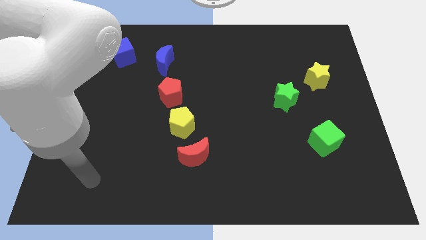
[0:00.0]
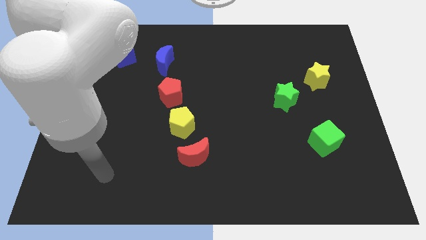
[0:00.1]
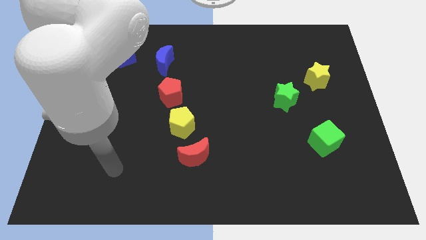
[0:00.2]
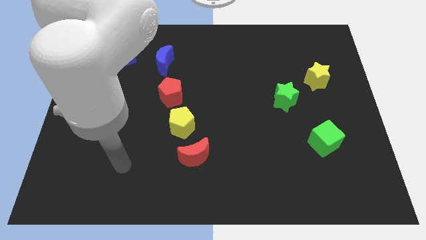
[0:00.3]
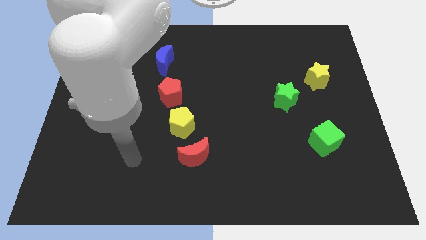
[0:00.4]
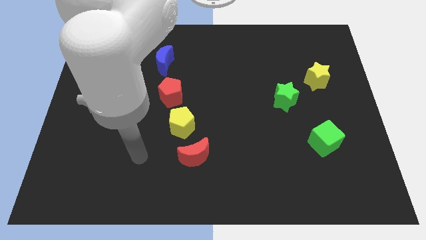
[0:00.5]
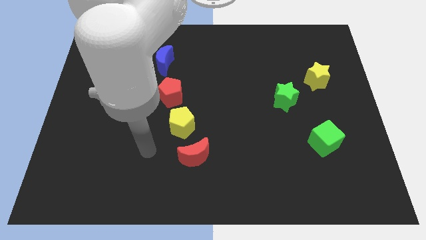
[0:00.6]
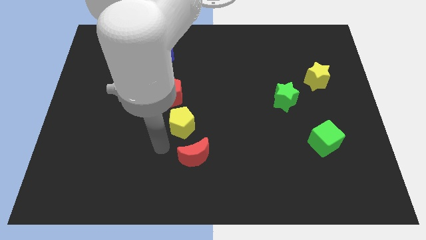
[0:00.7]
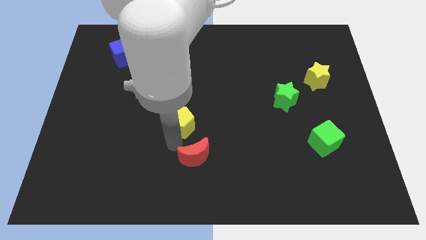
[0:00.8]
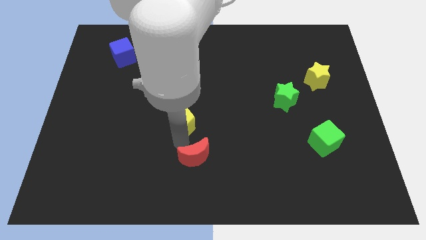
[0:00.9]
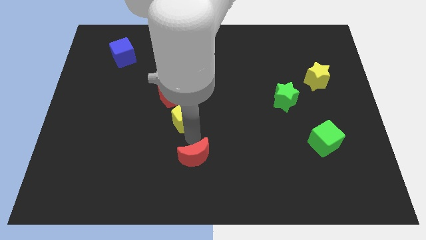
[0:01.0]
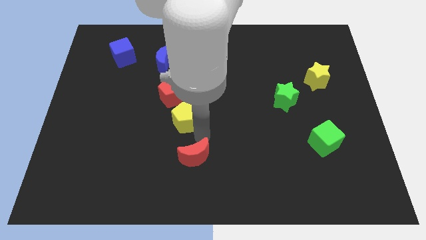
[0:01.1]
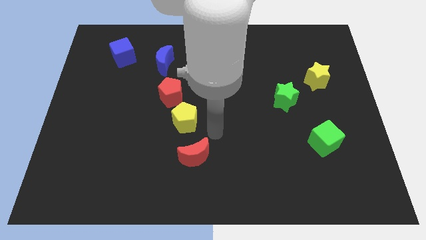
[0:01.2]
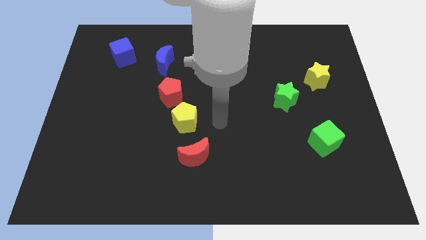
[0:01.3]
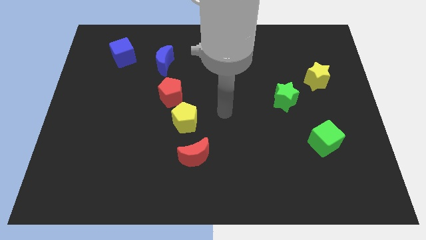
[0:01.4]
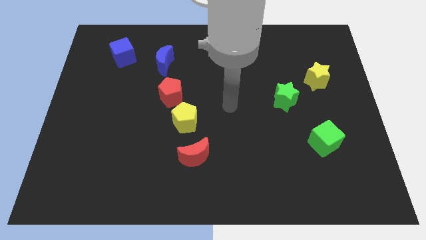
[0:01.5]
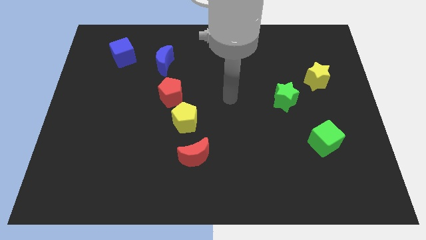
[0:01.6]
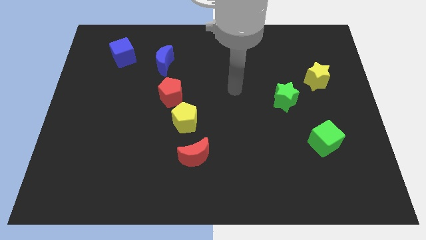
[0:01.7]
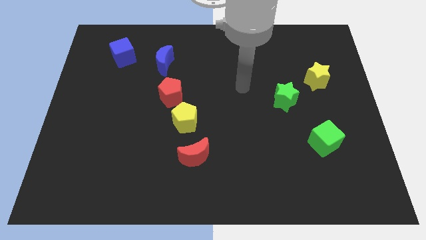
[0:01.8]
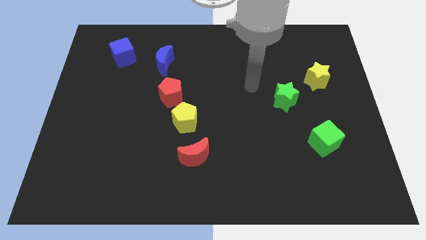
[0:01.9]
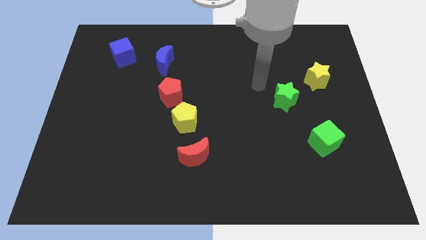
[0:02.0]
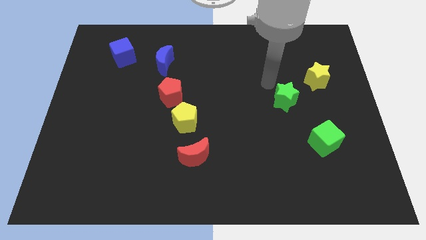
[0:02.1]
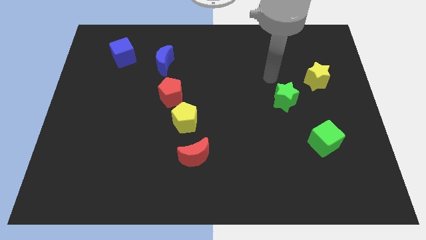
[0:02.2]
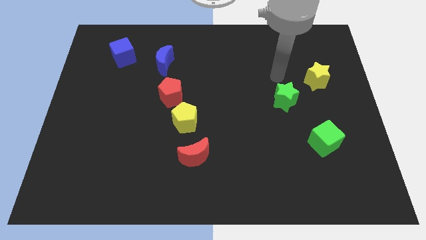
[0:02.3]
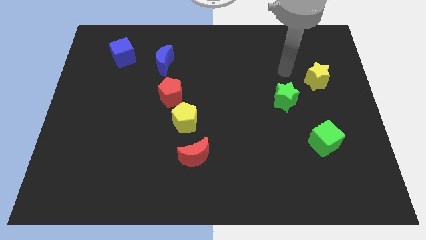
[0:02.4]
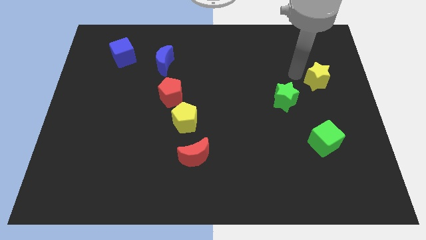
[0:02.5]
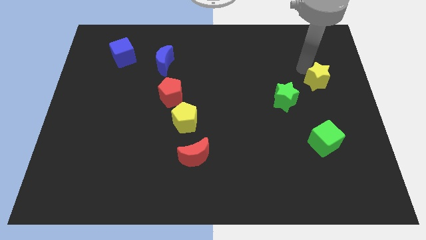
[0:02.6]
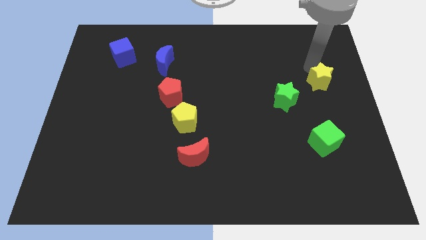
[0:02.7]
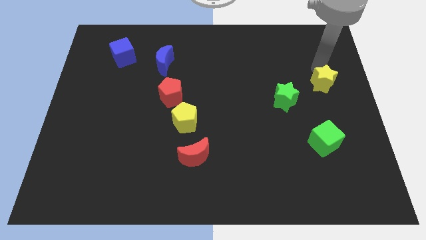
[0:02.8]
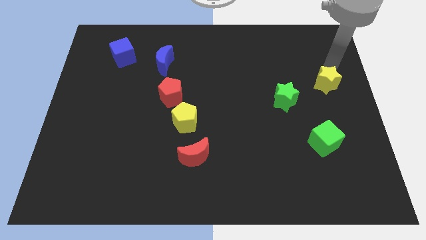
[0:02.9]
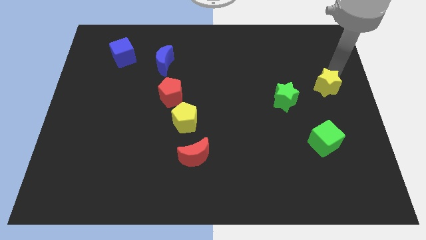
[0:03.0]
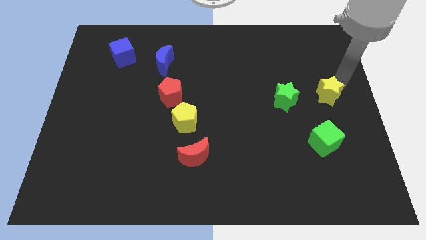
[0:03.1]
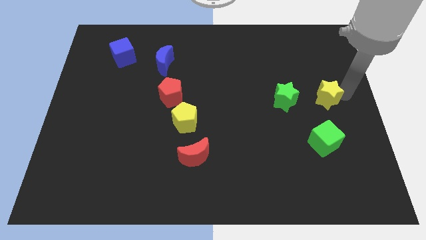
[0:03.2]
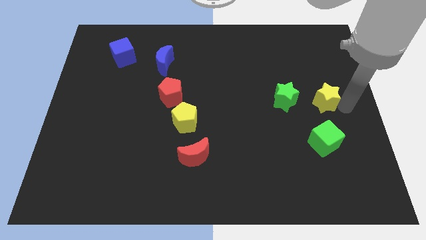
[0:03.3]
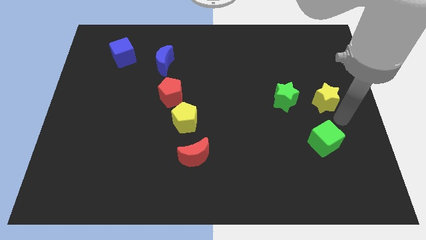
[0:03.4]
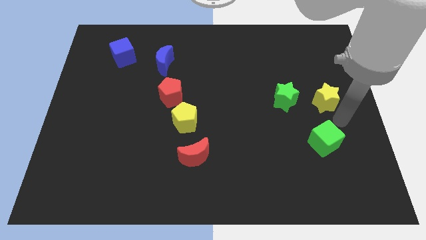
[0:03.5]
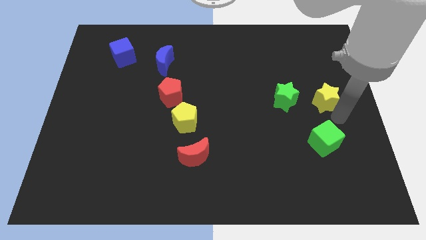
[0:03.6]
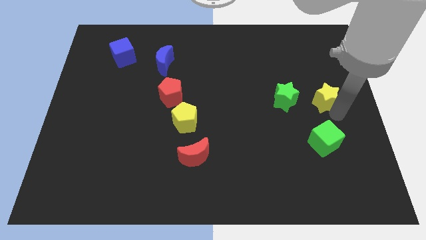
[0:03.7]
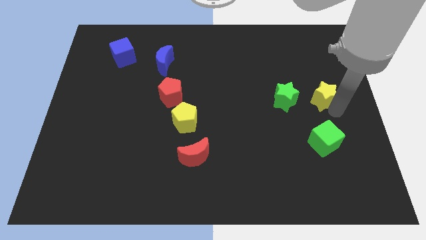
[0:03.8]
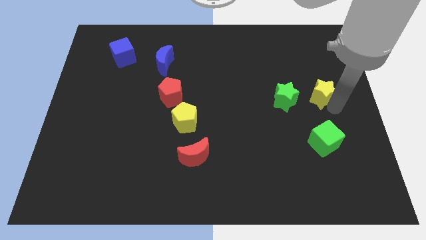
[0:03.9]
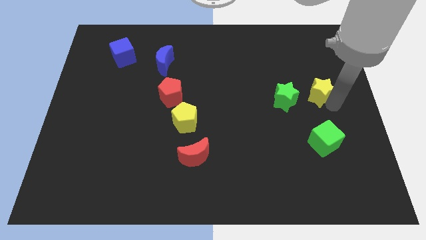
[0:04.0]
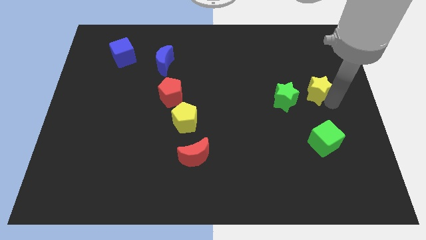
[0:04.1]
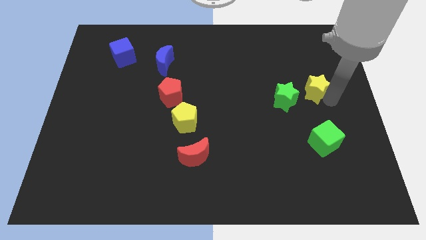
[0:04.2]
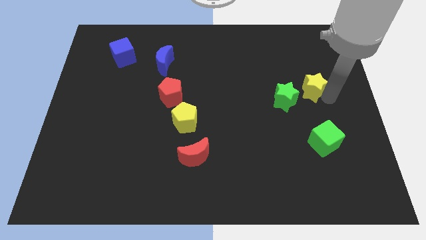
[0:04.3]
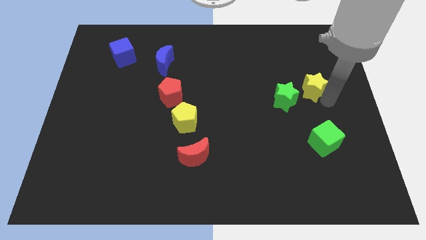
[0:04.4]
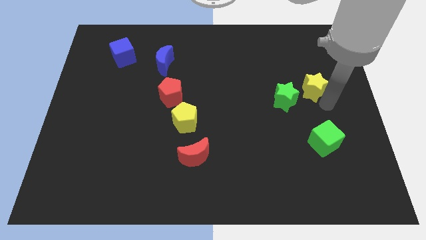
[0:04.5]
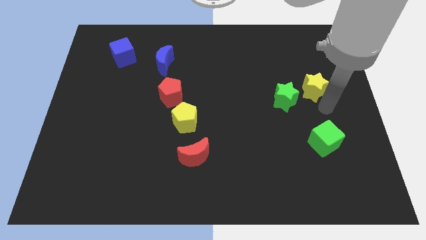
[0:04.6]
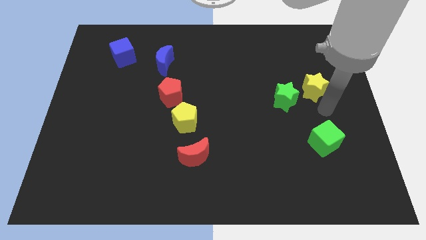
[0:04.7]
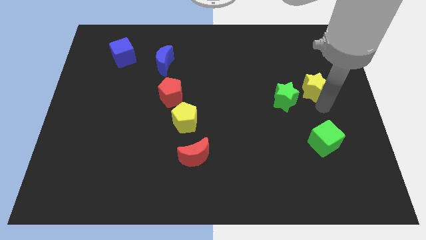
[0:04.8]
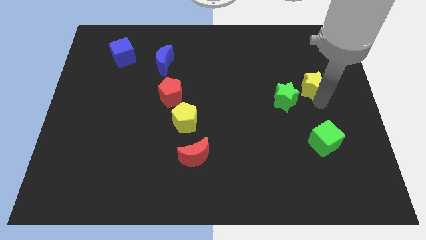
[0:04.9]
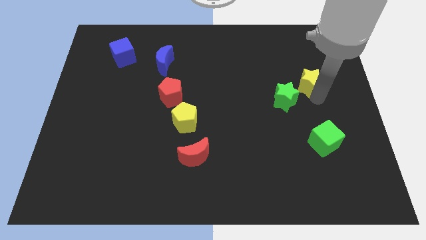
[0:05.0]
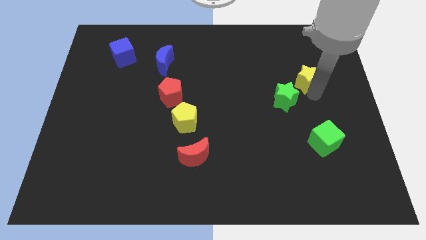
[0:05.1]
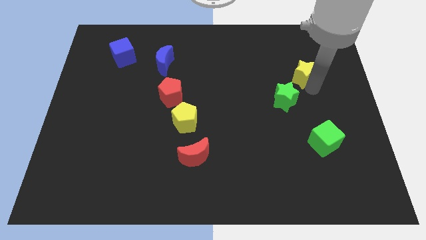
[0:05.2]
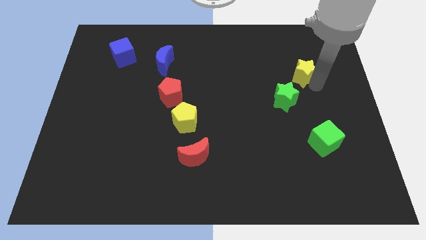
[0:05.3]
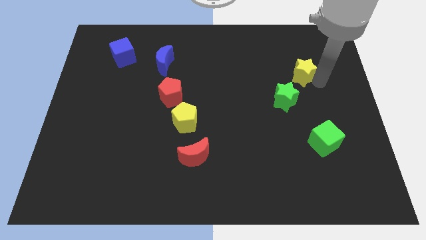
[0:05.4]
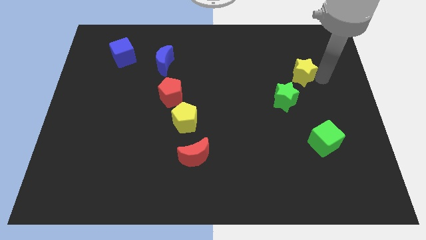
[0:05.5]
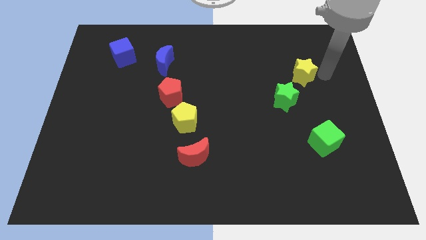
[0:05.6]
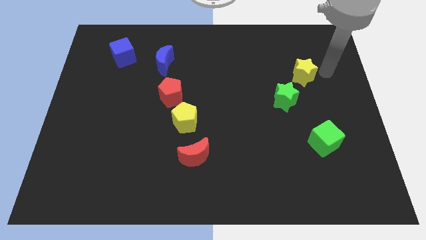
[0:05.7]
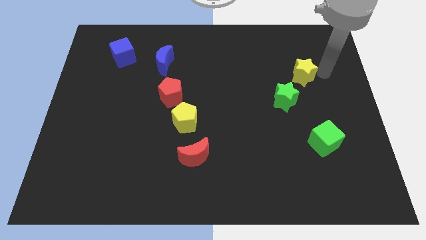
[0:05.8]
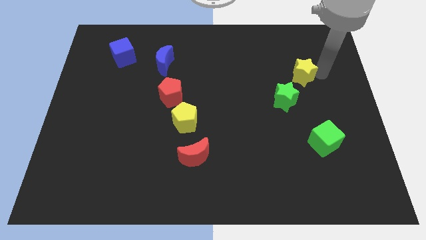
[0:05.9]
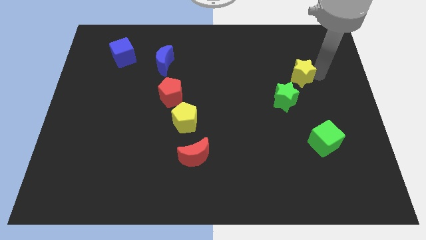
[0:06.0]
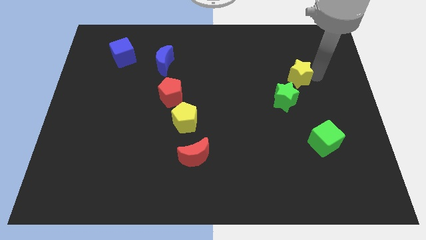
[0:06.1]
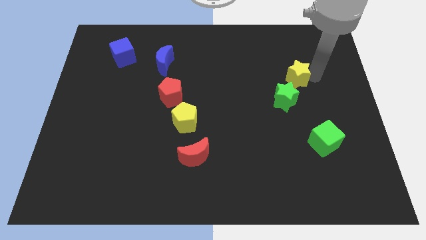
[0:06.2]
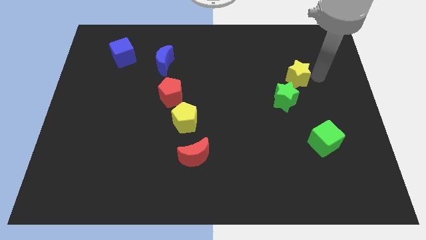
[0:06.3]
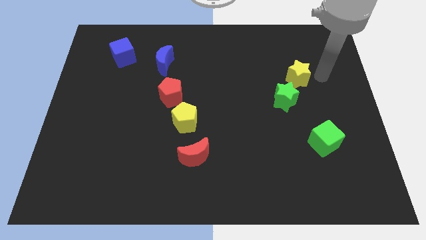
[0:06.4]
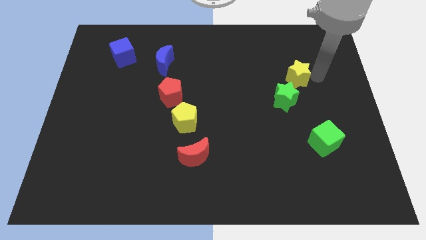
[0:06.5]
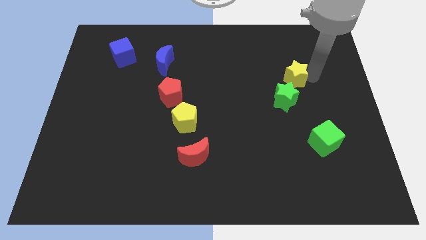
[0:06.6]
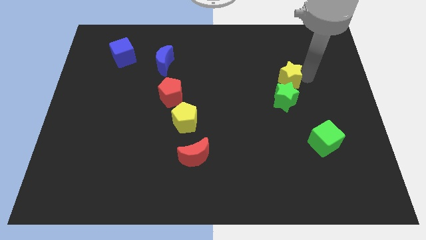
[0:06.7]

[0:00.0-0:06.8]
push the yellow star somewhat left

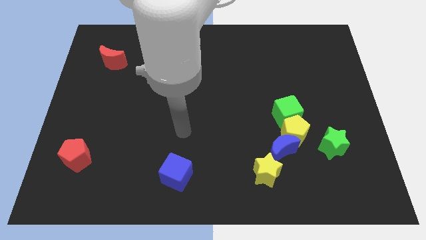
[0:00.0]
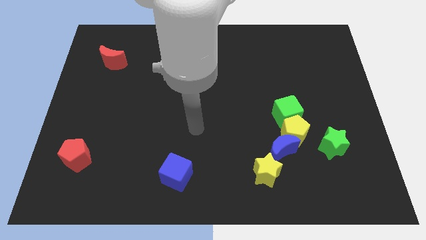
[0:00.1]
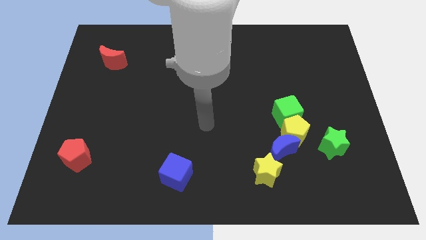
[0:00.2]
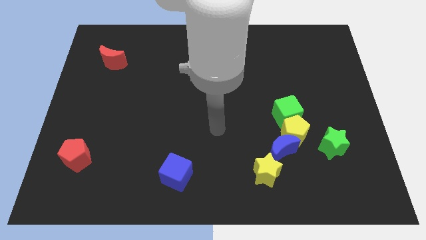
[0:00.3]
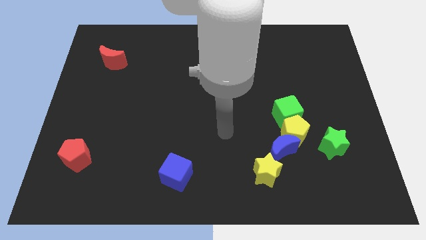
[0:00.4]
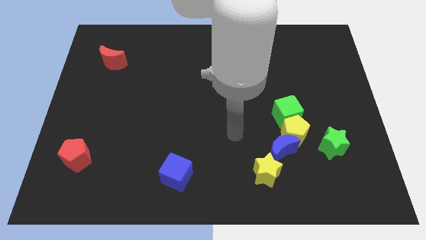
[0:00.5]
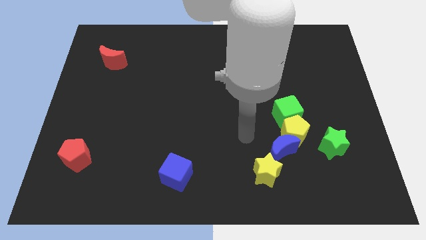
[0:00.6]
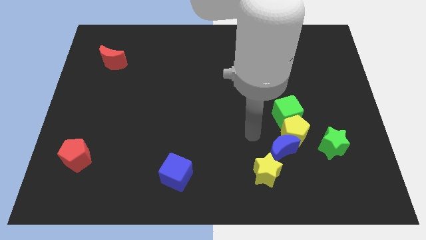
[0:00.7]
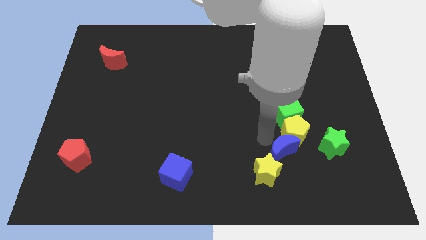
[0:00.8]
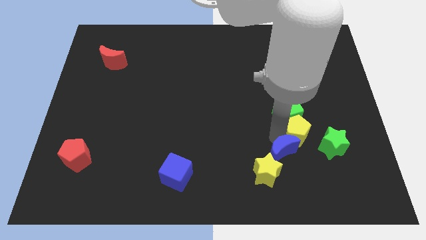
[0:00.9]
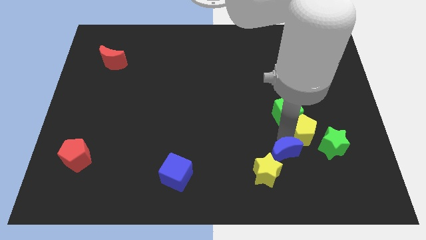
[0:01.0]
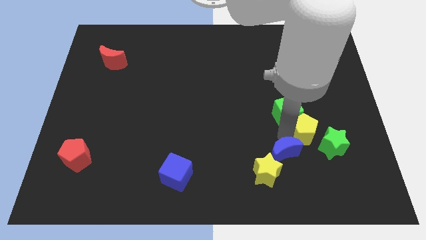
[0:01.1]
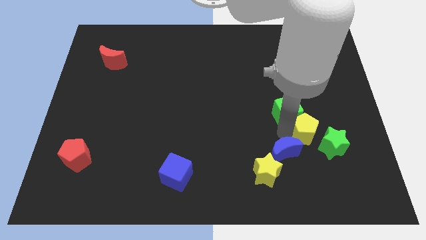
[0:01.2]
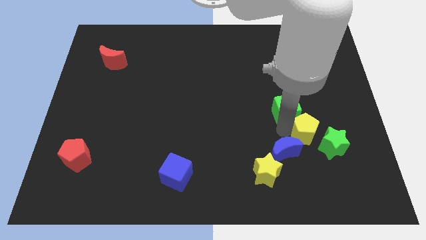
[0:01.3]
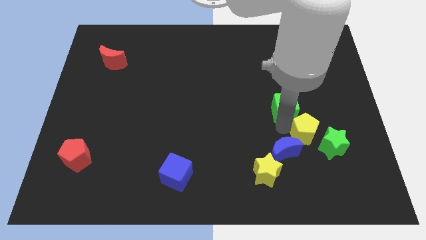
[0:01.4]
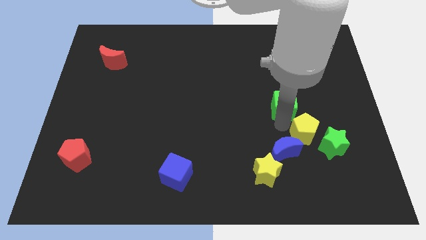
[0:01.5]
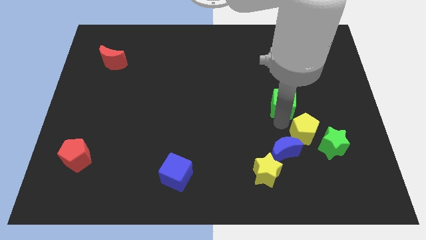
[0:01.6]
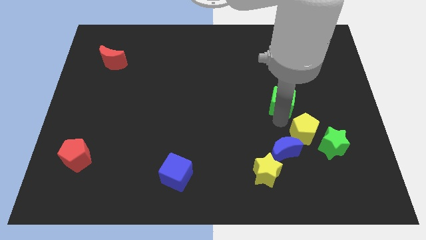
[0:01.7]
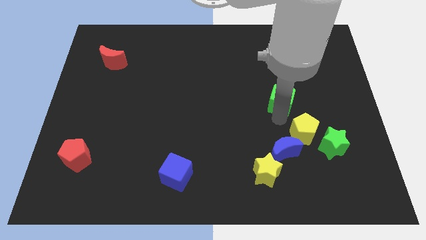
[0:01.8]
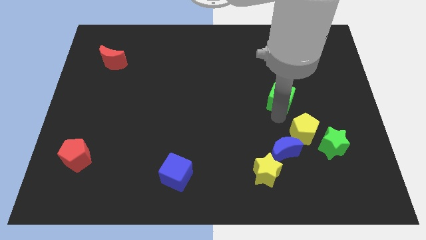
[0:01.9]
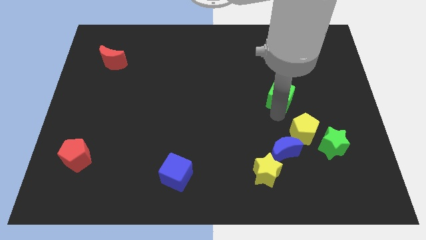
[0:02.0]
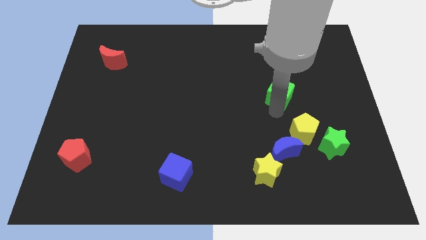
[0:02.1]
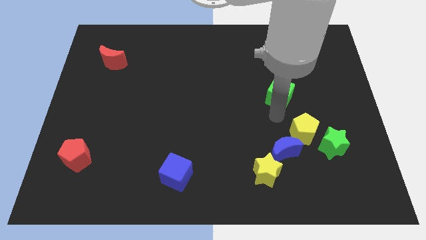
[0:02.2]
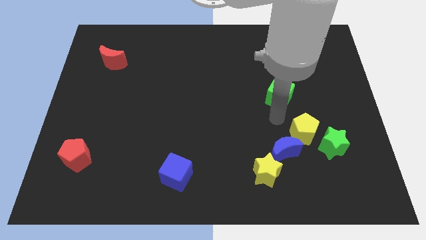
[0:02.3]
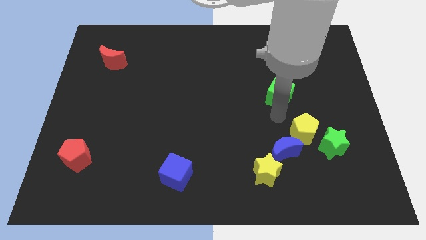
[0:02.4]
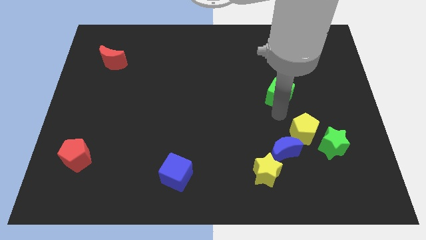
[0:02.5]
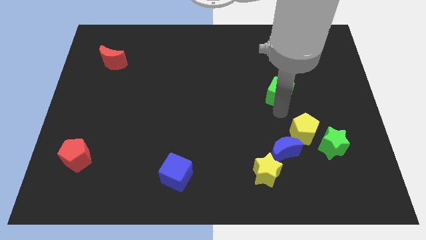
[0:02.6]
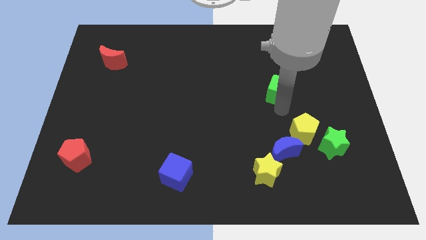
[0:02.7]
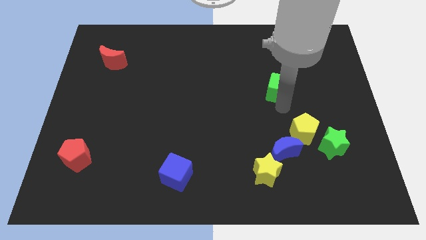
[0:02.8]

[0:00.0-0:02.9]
slightly push the green cube upwards
